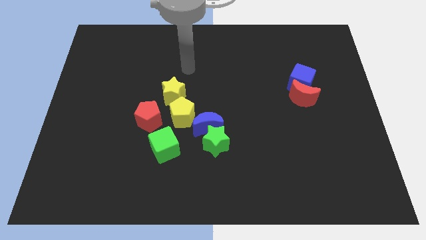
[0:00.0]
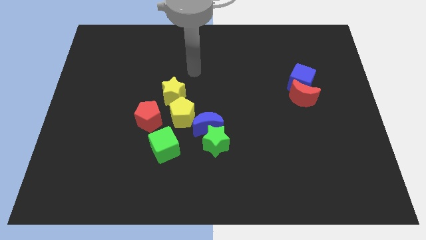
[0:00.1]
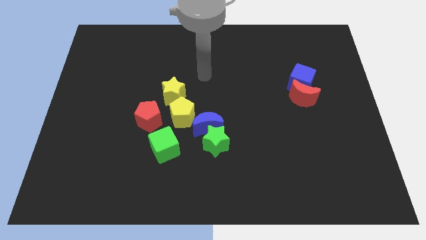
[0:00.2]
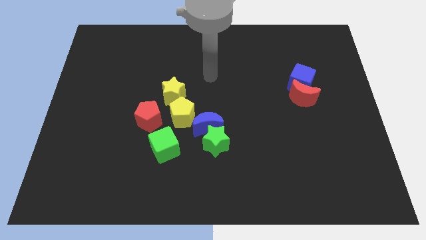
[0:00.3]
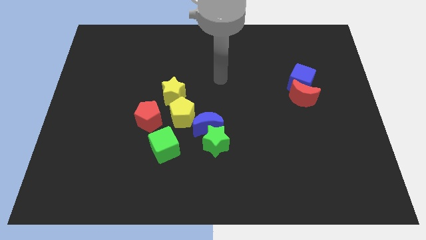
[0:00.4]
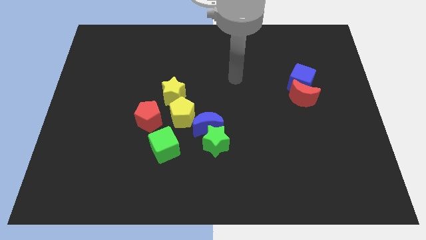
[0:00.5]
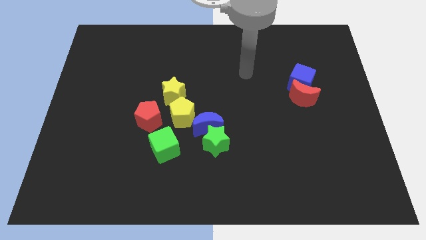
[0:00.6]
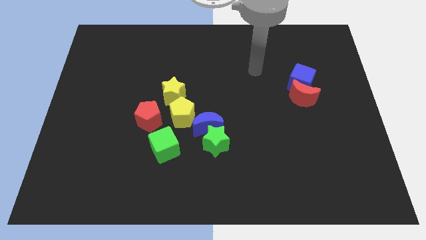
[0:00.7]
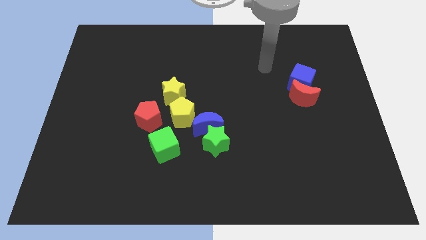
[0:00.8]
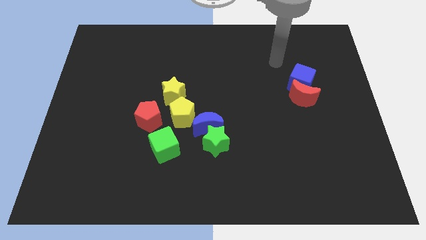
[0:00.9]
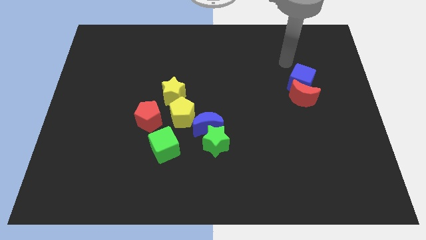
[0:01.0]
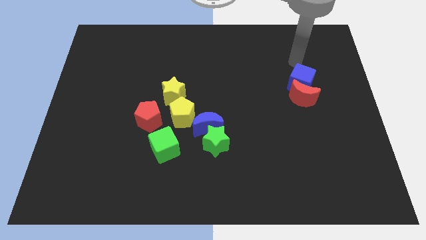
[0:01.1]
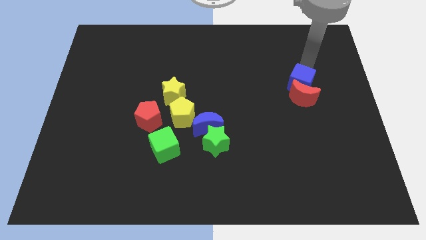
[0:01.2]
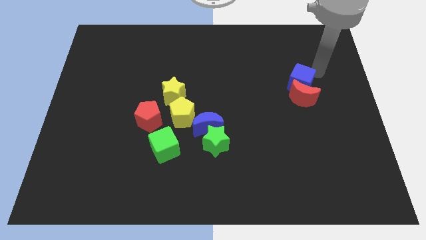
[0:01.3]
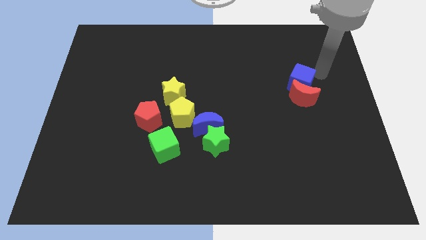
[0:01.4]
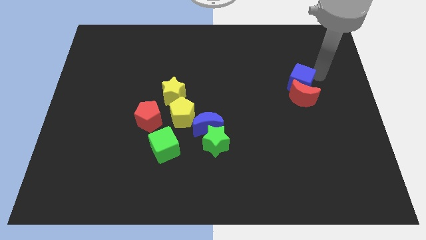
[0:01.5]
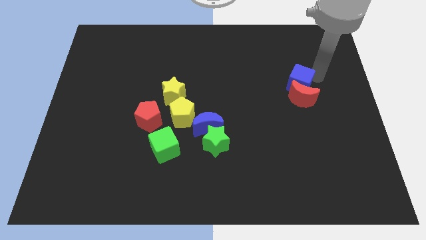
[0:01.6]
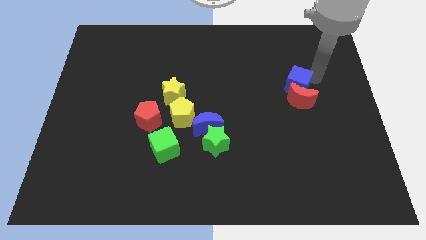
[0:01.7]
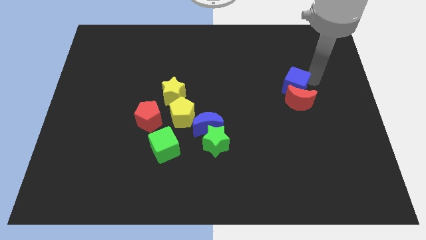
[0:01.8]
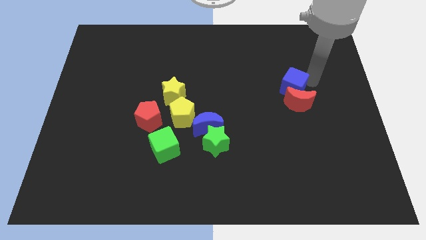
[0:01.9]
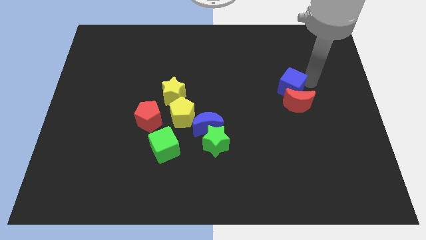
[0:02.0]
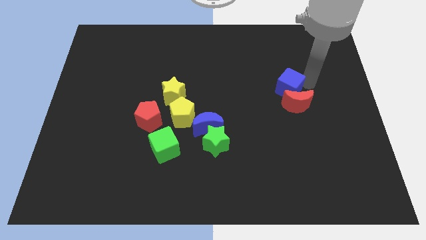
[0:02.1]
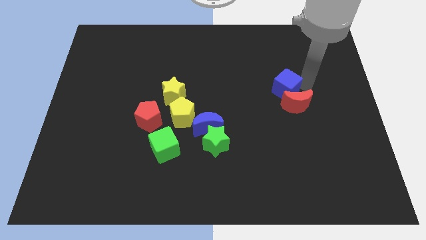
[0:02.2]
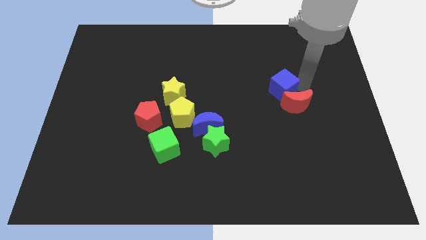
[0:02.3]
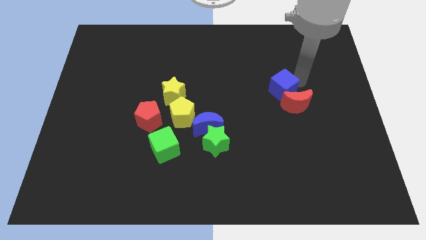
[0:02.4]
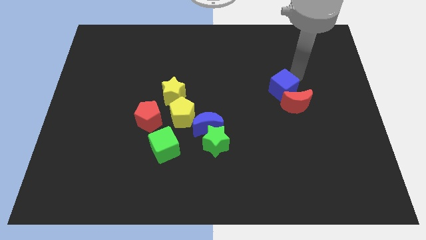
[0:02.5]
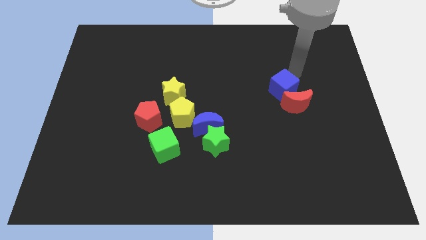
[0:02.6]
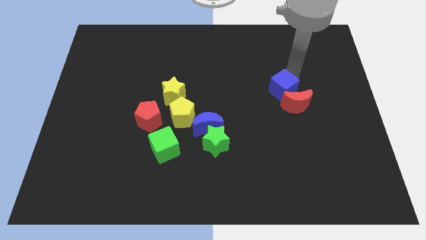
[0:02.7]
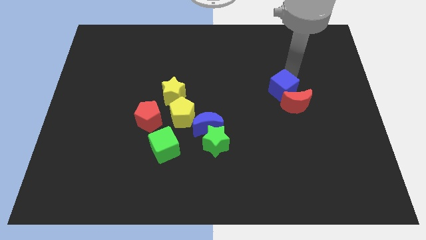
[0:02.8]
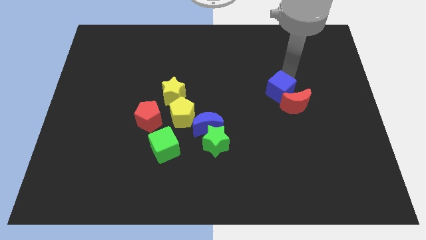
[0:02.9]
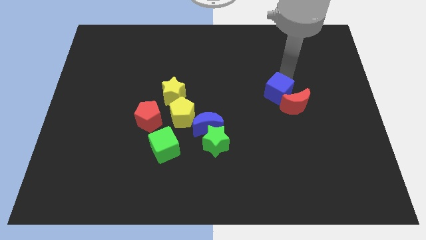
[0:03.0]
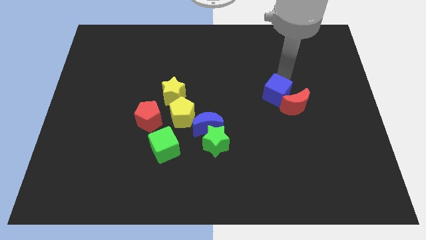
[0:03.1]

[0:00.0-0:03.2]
slightly move the blue cube downwards and left diagonally

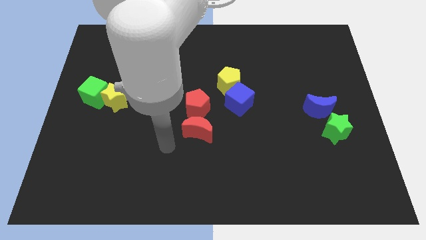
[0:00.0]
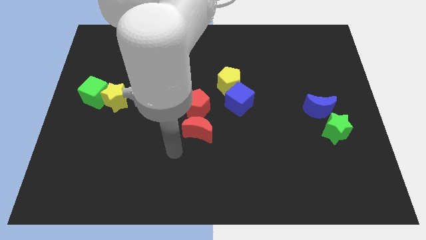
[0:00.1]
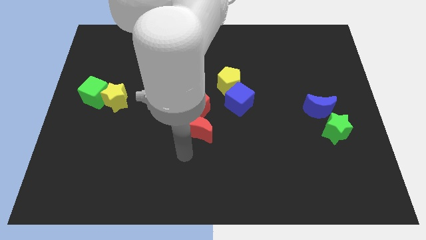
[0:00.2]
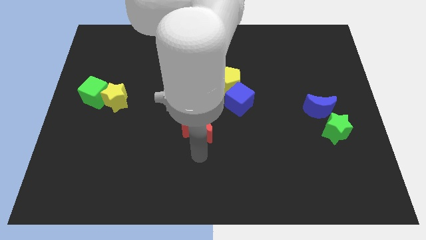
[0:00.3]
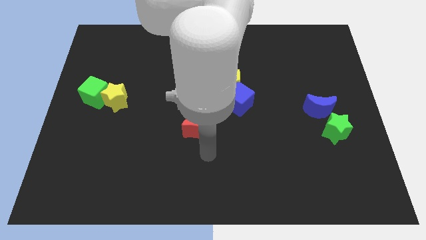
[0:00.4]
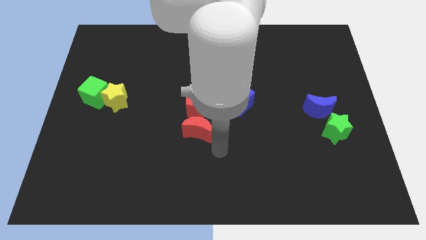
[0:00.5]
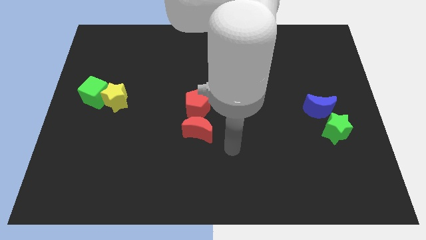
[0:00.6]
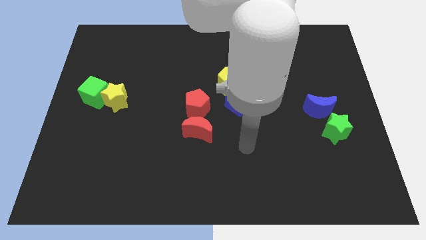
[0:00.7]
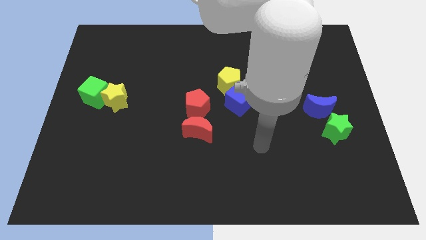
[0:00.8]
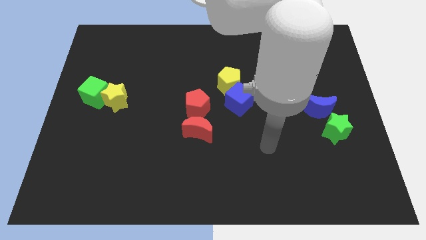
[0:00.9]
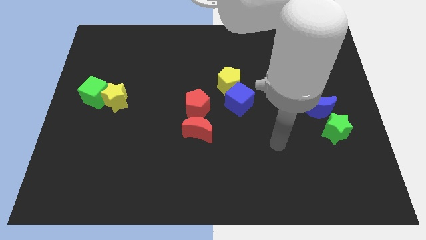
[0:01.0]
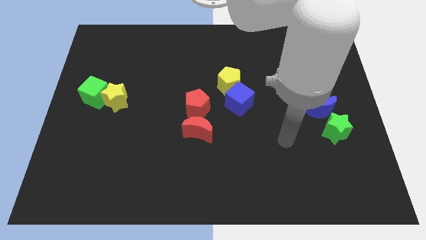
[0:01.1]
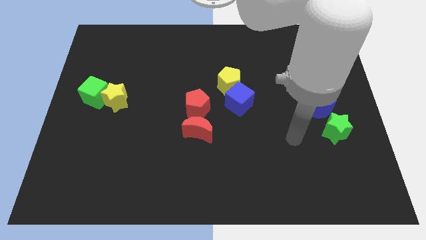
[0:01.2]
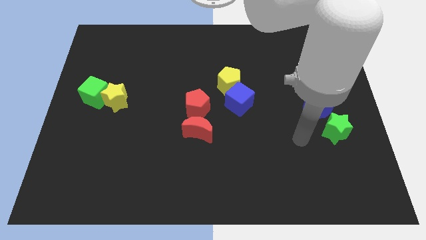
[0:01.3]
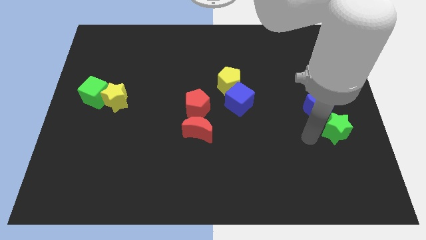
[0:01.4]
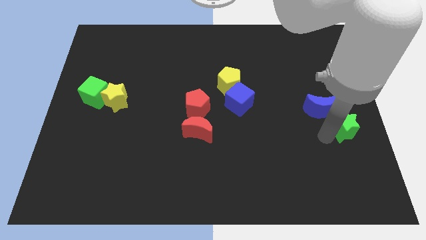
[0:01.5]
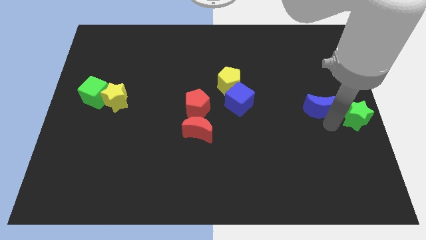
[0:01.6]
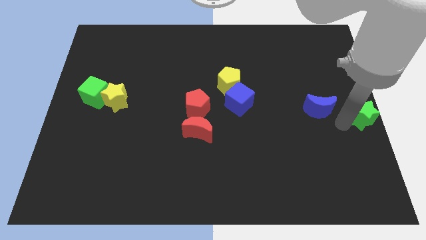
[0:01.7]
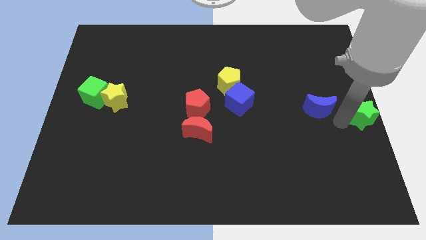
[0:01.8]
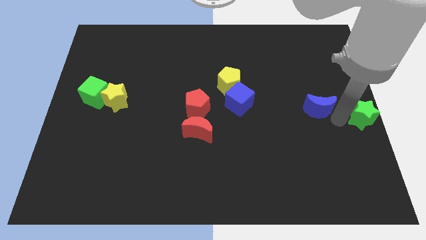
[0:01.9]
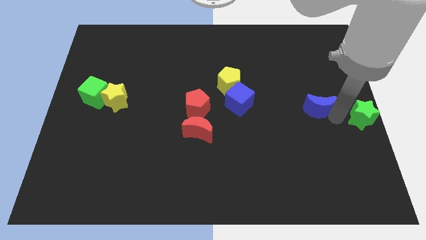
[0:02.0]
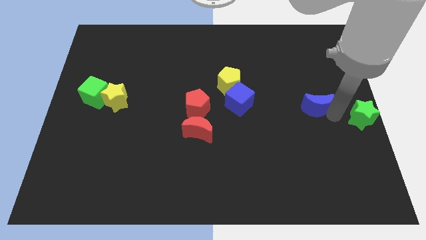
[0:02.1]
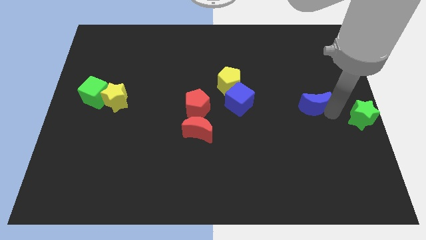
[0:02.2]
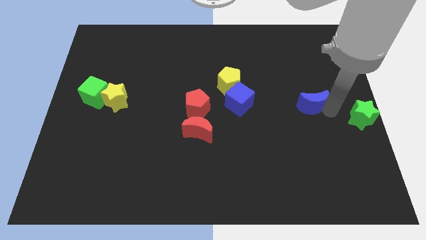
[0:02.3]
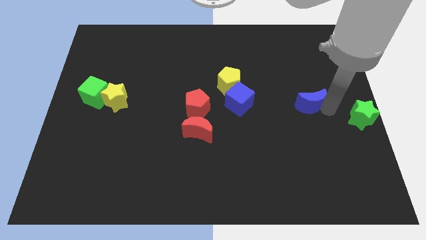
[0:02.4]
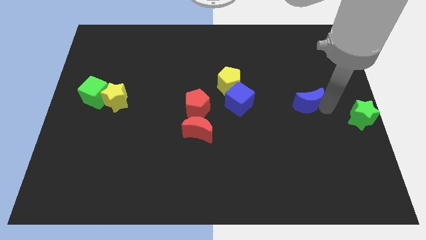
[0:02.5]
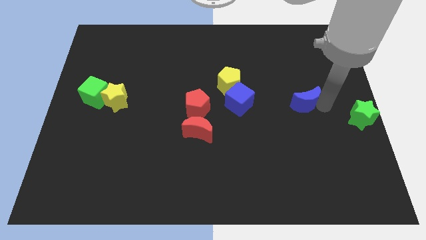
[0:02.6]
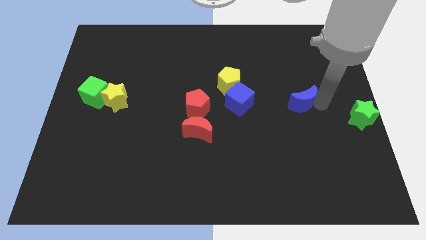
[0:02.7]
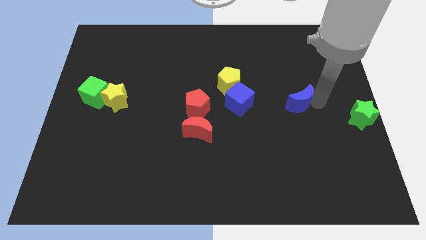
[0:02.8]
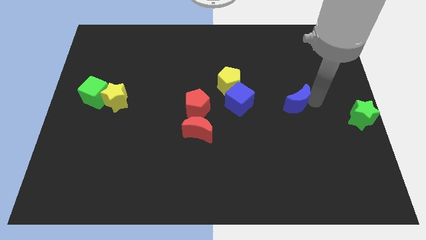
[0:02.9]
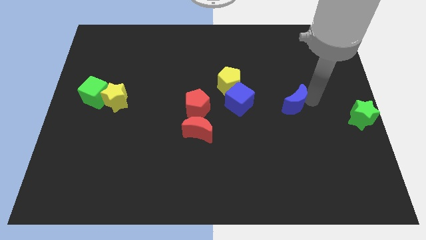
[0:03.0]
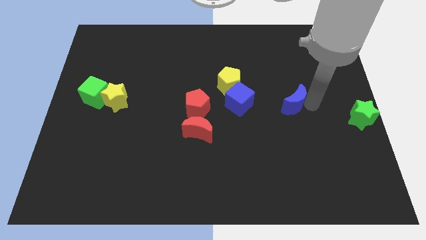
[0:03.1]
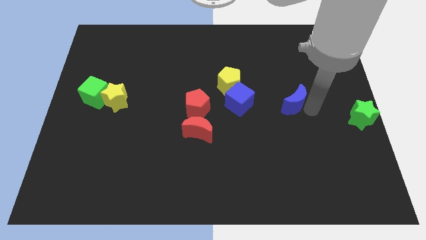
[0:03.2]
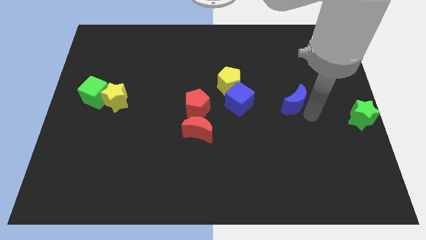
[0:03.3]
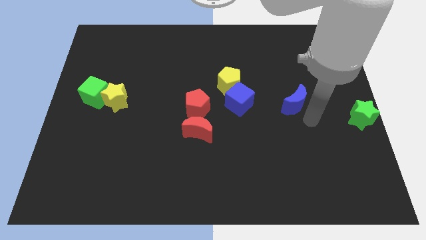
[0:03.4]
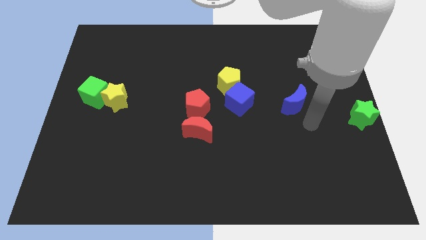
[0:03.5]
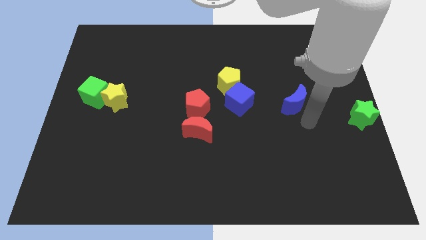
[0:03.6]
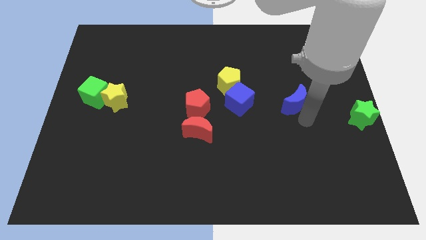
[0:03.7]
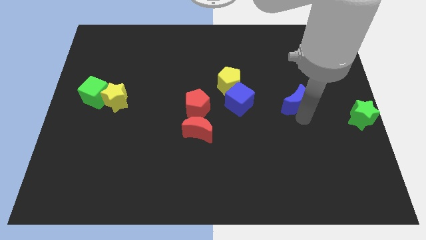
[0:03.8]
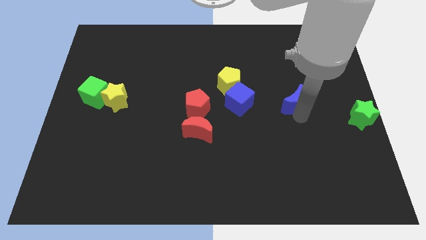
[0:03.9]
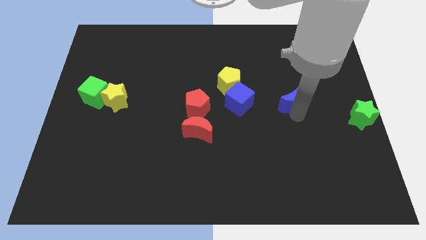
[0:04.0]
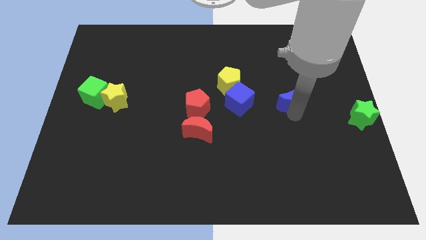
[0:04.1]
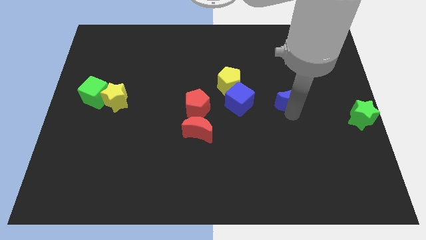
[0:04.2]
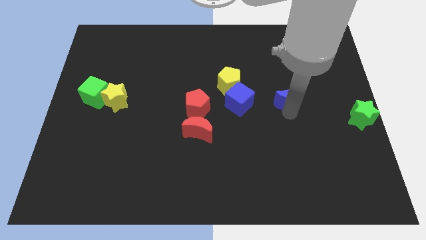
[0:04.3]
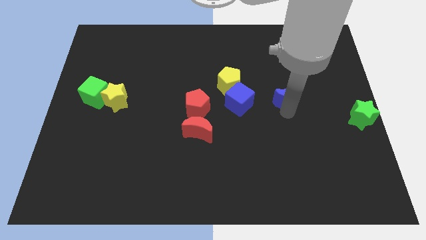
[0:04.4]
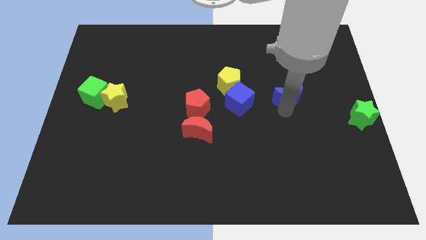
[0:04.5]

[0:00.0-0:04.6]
move the blue moon up and to the left a little

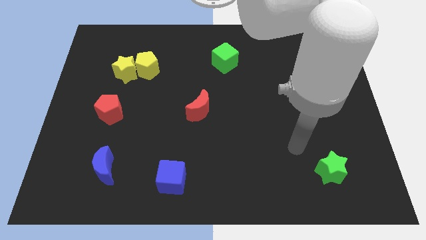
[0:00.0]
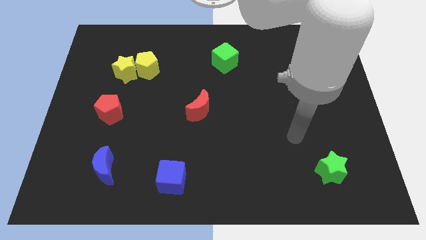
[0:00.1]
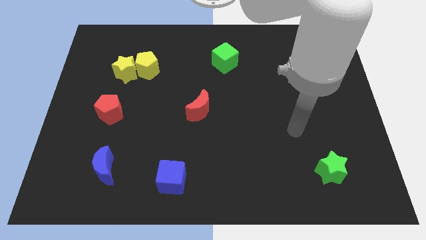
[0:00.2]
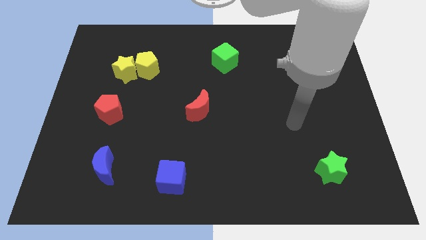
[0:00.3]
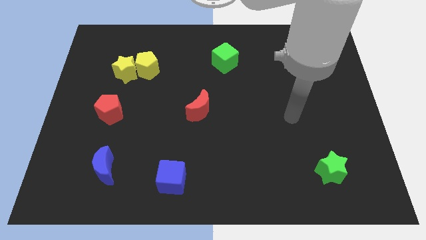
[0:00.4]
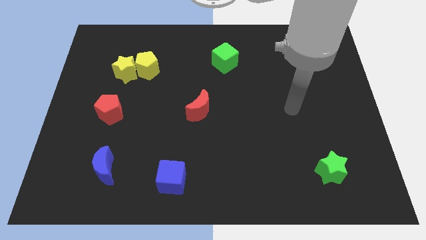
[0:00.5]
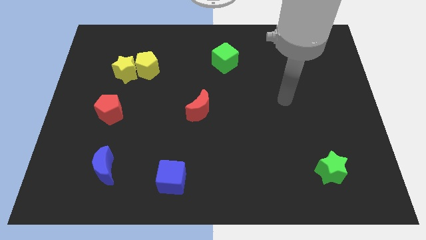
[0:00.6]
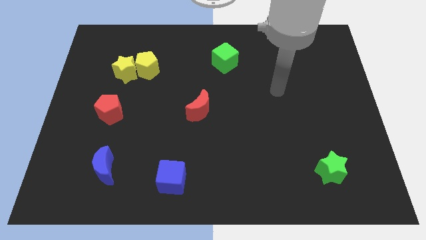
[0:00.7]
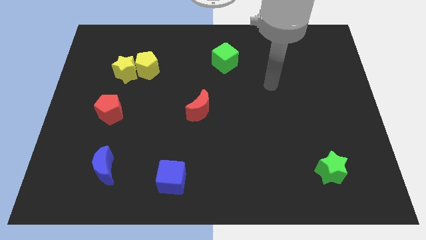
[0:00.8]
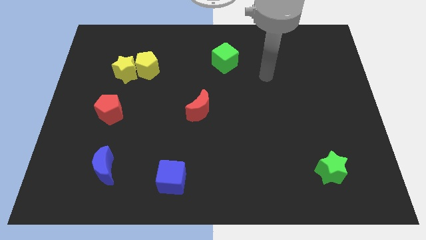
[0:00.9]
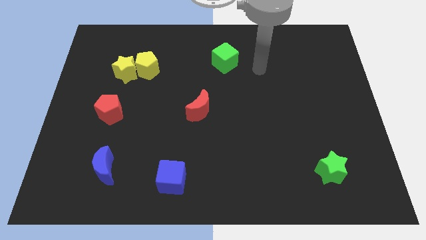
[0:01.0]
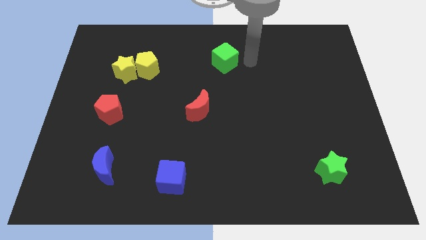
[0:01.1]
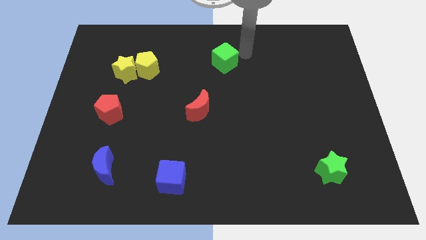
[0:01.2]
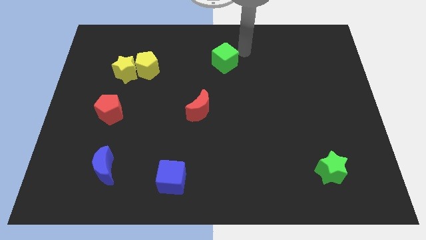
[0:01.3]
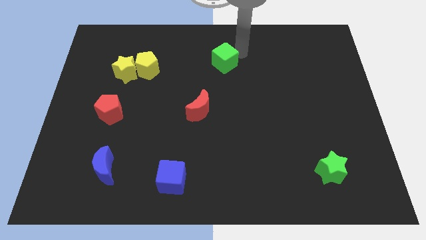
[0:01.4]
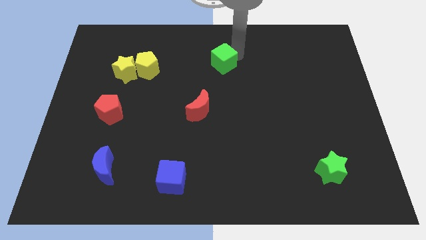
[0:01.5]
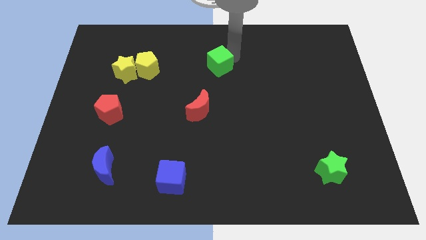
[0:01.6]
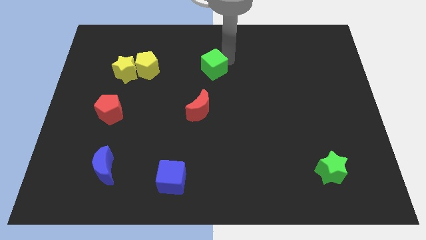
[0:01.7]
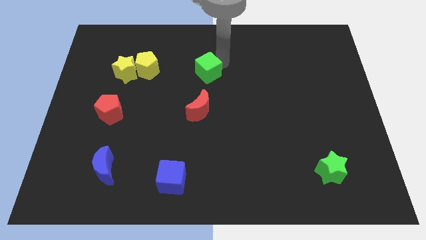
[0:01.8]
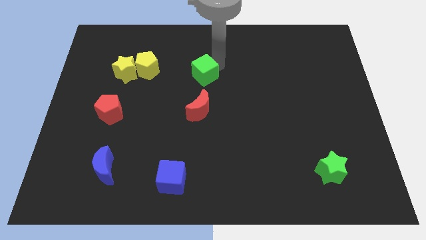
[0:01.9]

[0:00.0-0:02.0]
push the green cube somewhat down and to the left diagonally
